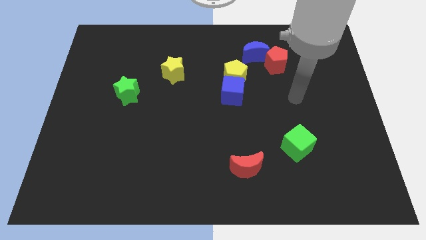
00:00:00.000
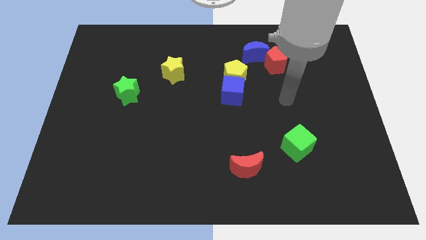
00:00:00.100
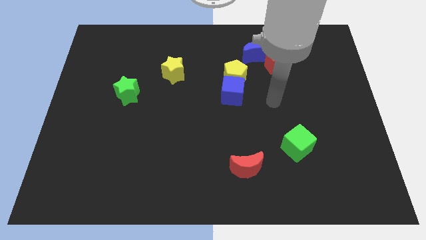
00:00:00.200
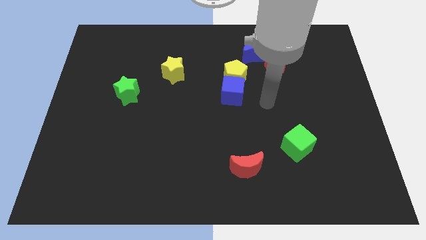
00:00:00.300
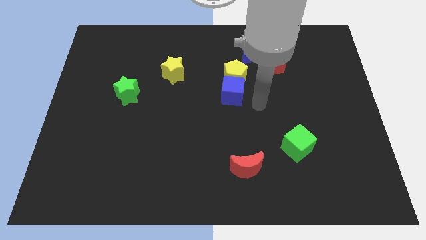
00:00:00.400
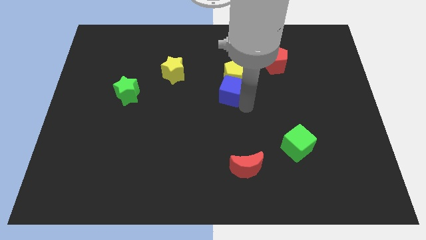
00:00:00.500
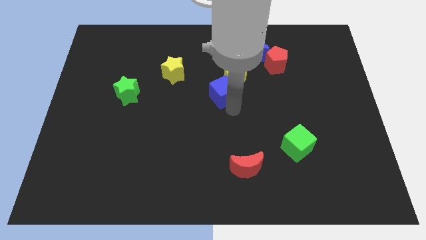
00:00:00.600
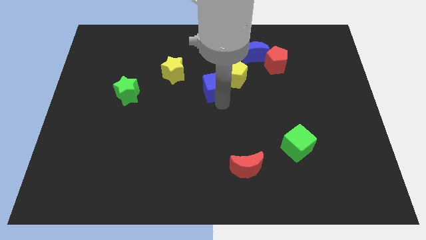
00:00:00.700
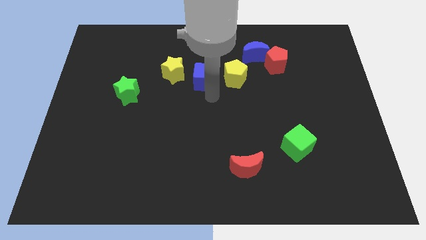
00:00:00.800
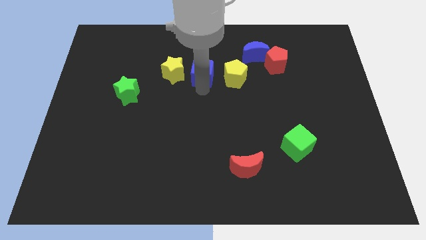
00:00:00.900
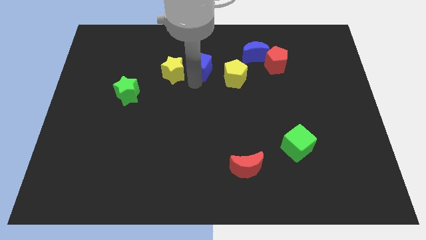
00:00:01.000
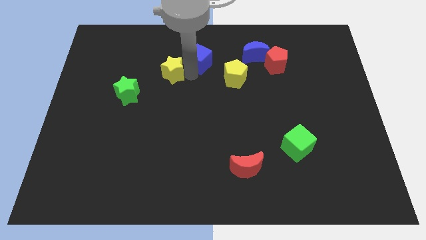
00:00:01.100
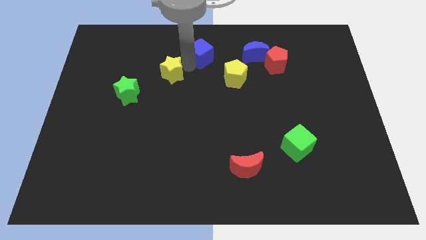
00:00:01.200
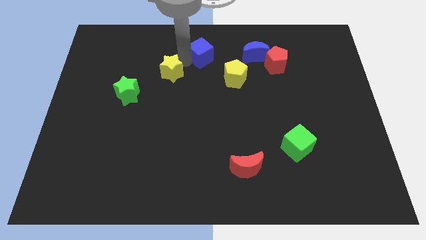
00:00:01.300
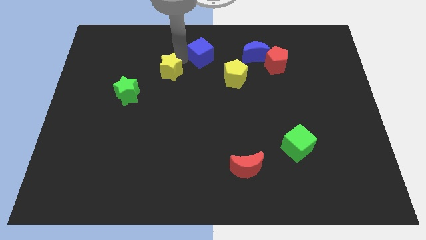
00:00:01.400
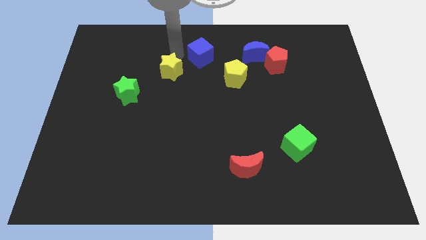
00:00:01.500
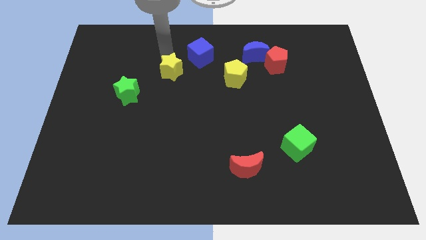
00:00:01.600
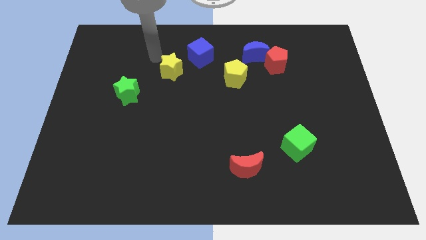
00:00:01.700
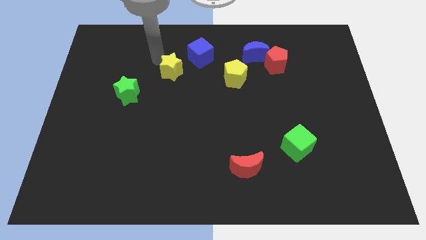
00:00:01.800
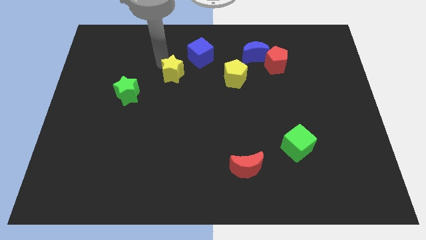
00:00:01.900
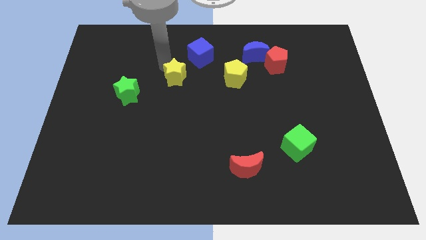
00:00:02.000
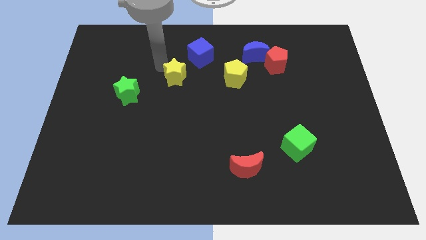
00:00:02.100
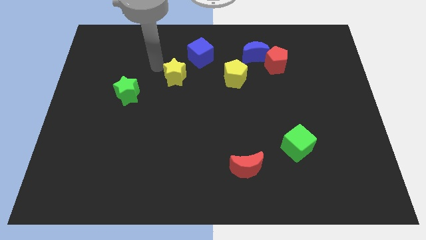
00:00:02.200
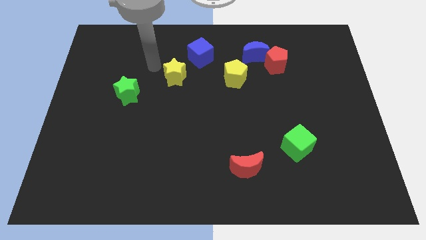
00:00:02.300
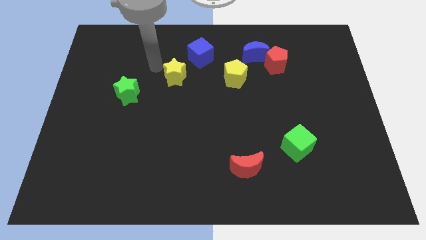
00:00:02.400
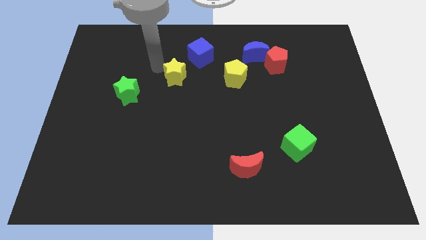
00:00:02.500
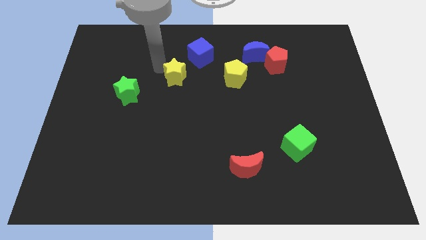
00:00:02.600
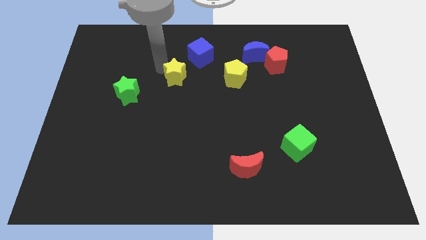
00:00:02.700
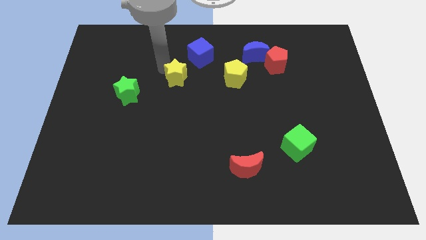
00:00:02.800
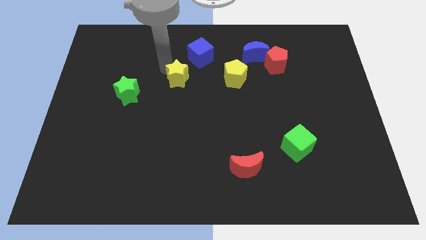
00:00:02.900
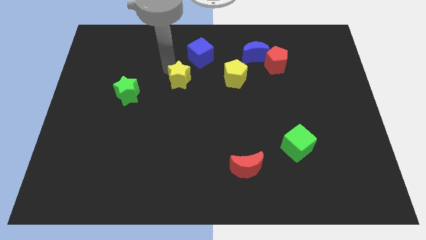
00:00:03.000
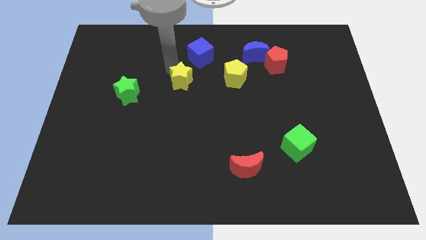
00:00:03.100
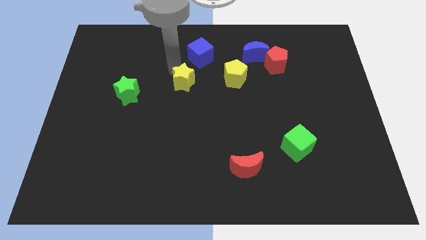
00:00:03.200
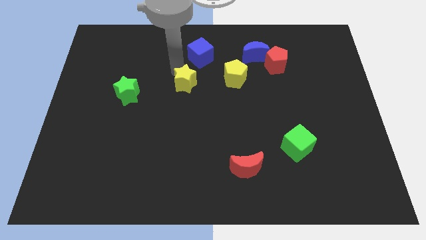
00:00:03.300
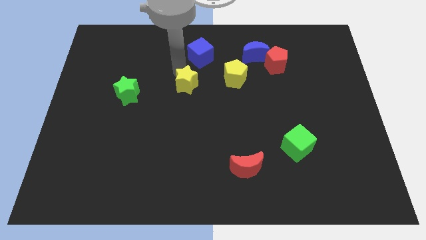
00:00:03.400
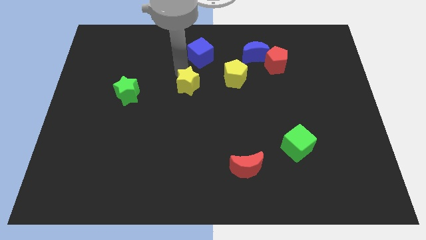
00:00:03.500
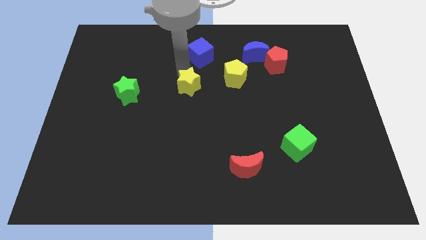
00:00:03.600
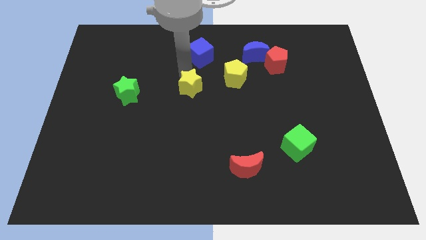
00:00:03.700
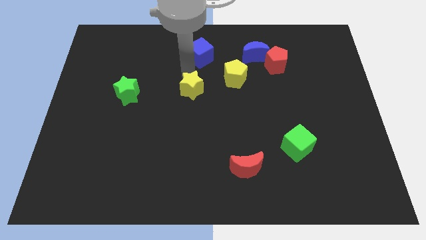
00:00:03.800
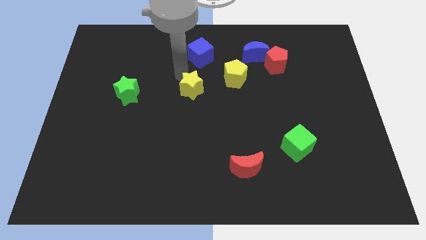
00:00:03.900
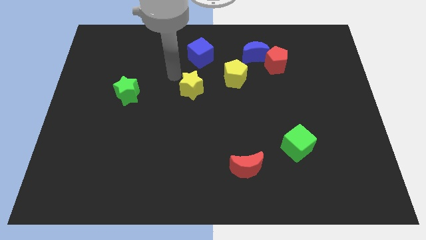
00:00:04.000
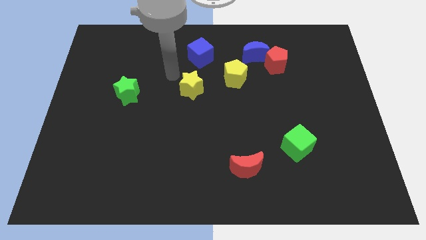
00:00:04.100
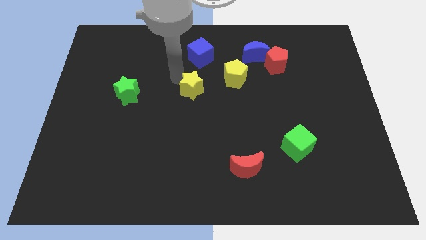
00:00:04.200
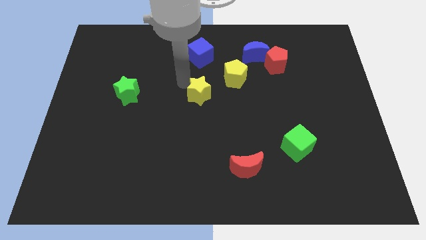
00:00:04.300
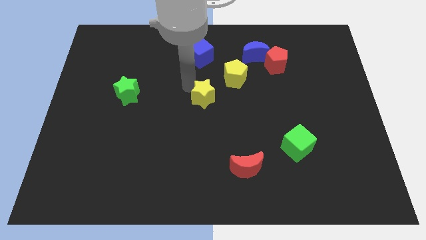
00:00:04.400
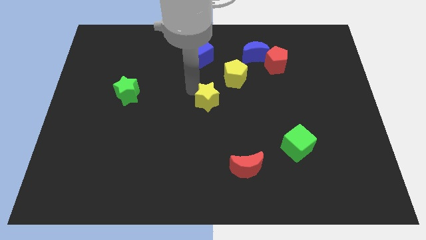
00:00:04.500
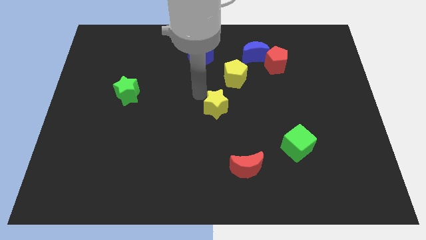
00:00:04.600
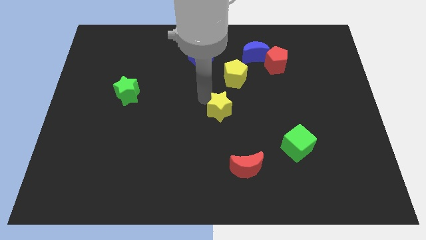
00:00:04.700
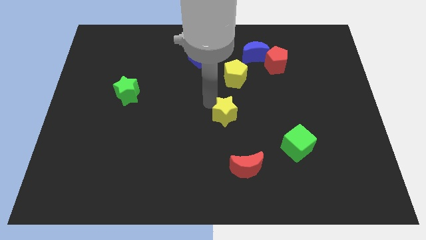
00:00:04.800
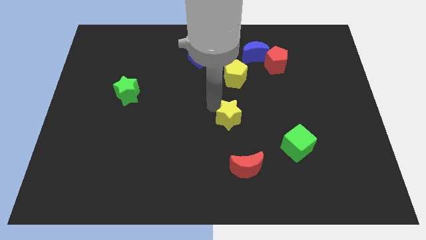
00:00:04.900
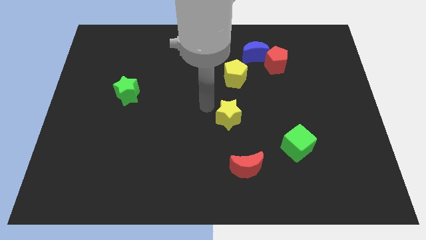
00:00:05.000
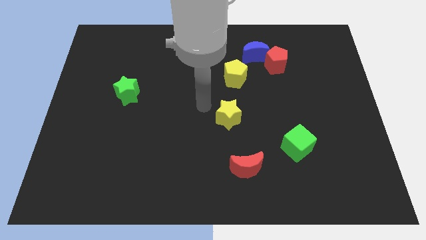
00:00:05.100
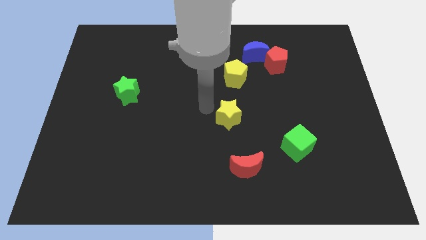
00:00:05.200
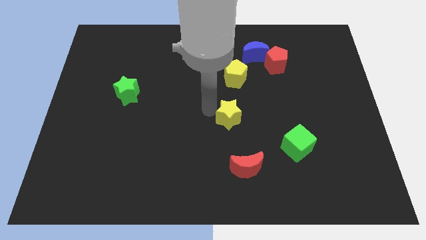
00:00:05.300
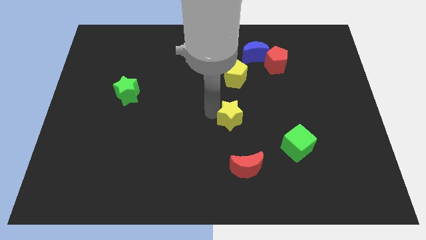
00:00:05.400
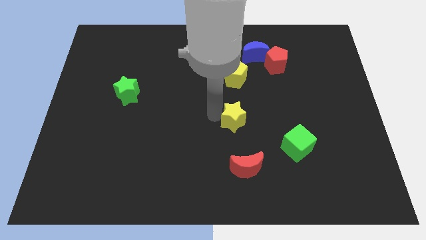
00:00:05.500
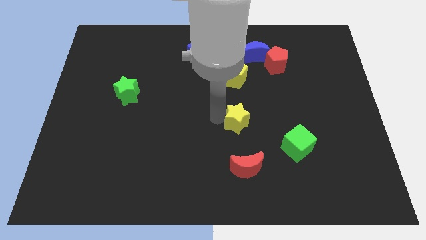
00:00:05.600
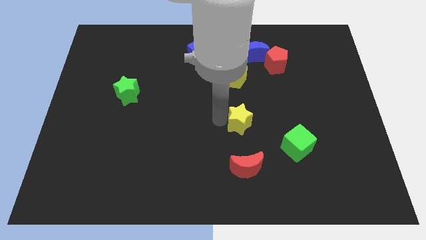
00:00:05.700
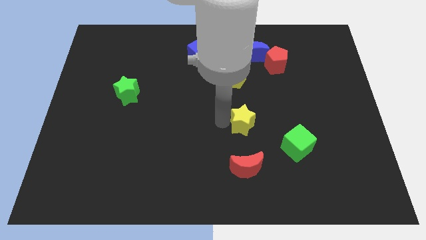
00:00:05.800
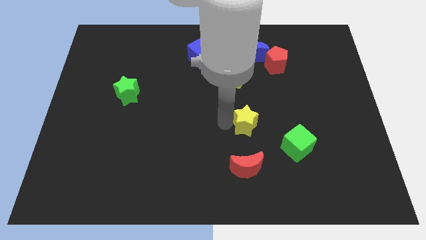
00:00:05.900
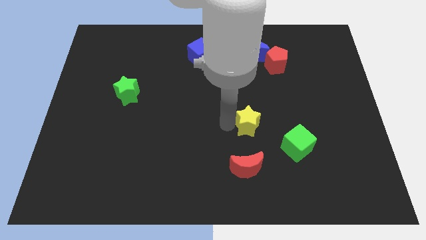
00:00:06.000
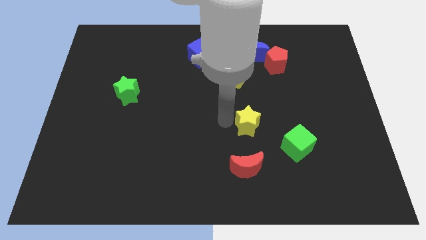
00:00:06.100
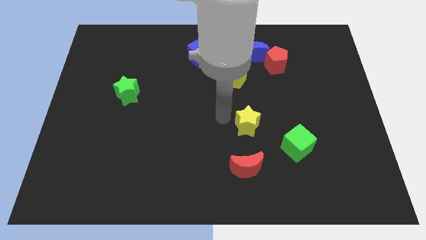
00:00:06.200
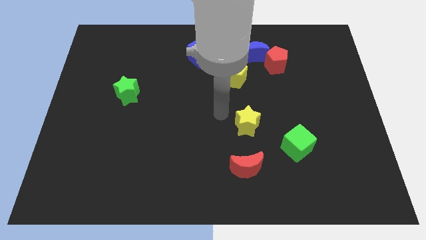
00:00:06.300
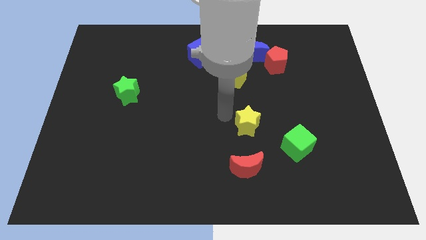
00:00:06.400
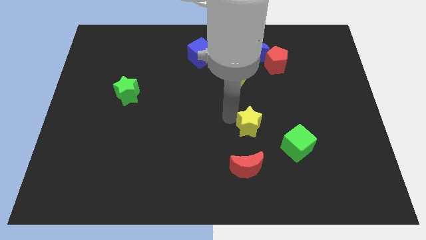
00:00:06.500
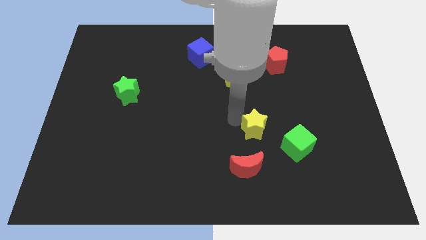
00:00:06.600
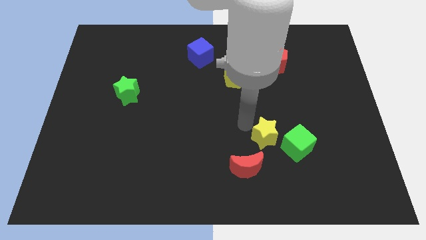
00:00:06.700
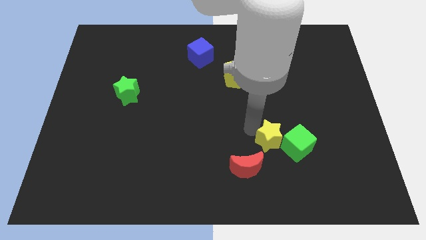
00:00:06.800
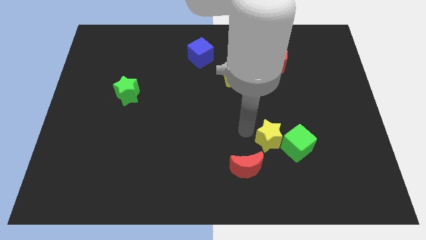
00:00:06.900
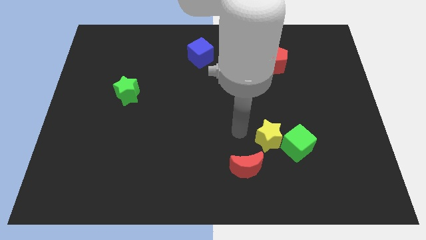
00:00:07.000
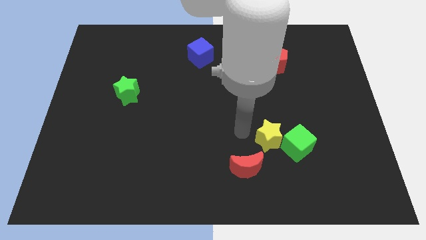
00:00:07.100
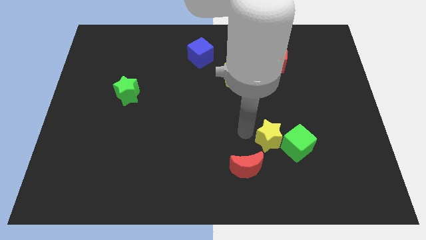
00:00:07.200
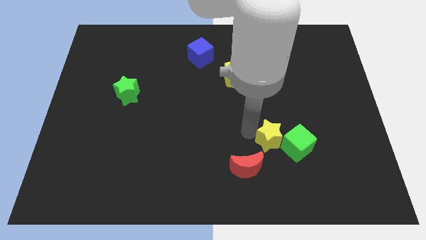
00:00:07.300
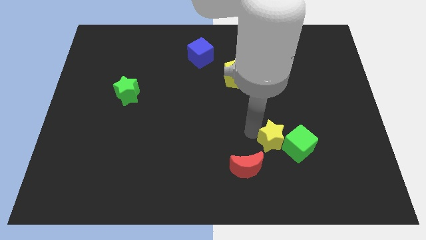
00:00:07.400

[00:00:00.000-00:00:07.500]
push the yellow star close to the green cube
